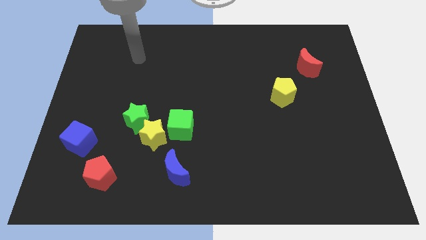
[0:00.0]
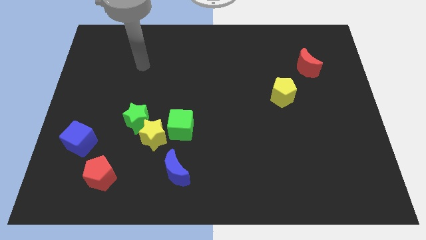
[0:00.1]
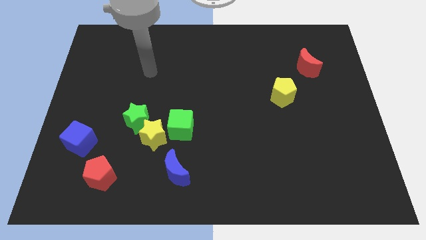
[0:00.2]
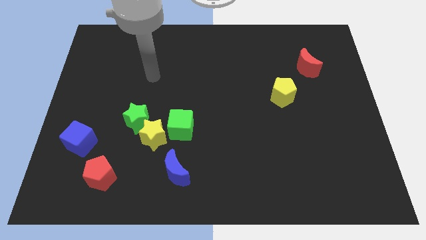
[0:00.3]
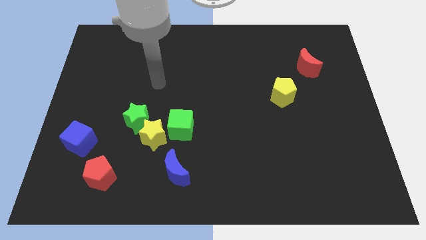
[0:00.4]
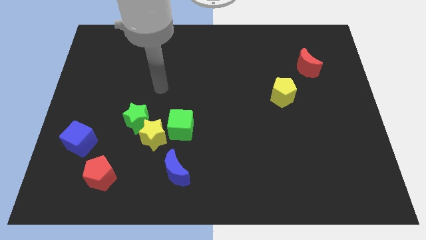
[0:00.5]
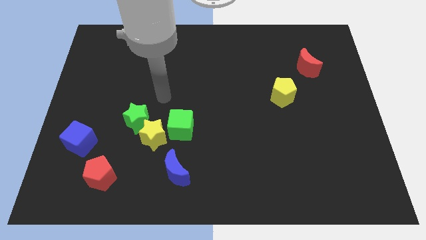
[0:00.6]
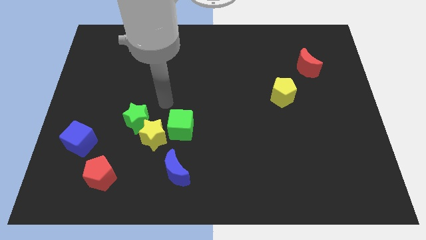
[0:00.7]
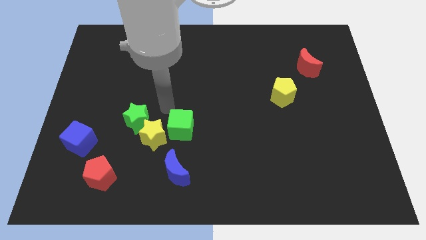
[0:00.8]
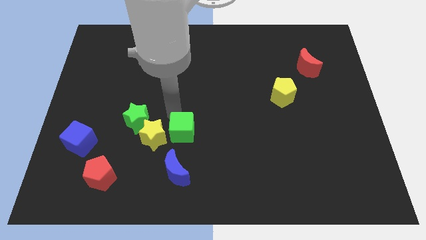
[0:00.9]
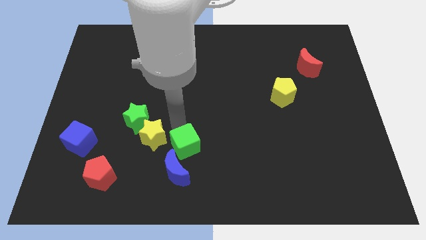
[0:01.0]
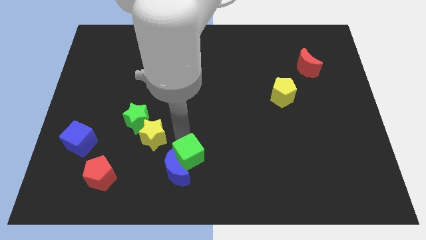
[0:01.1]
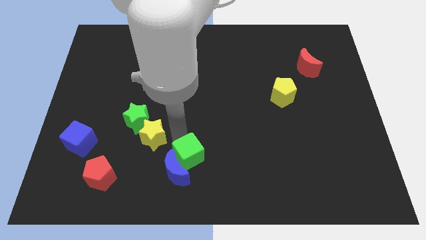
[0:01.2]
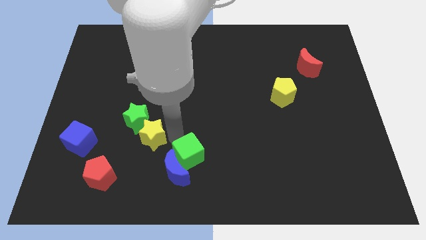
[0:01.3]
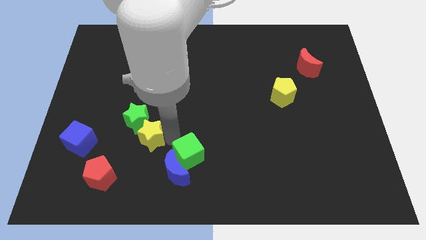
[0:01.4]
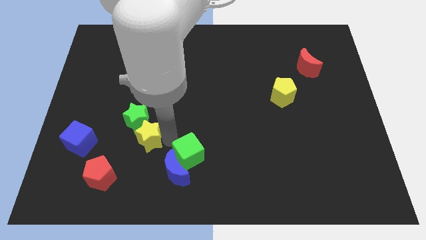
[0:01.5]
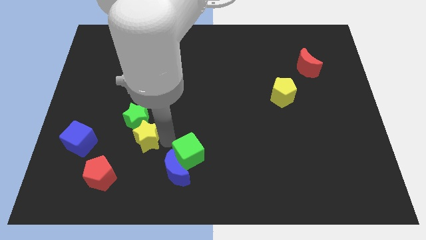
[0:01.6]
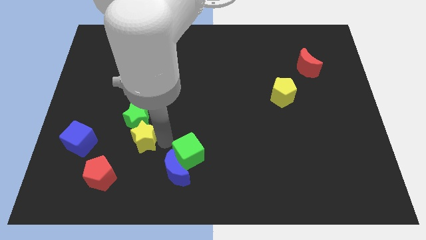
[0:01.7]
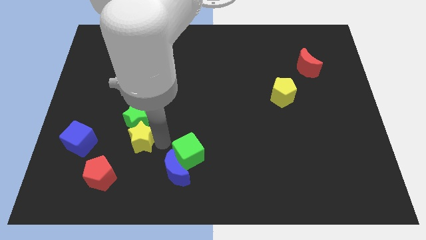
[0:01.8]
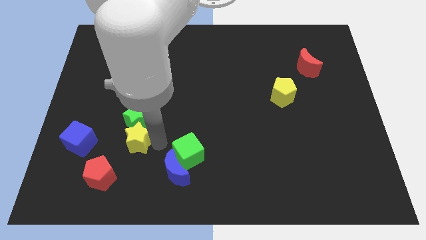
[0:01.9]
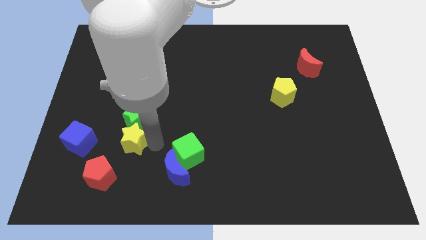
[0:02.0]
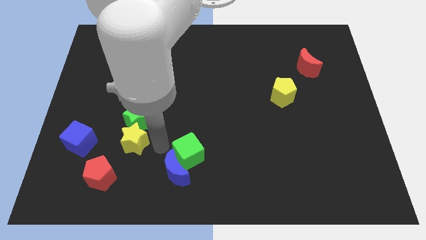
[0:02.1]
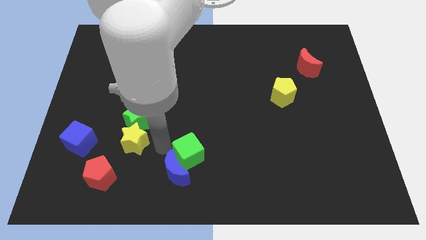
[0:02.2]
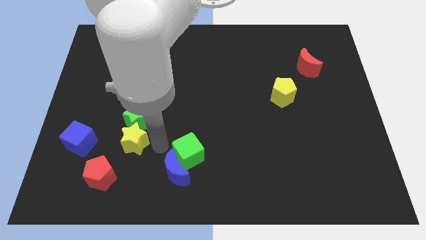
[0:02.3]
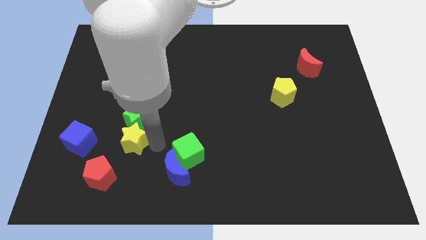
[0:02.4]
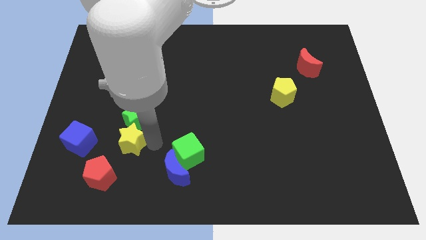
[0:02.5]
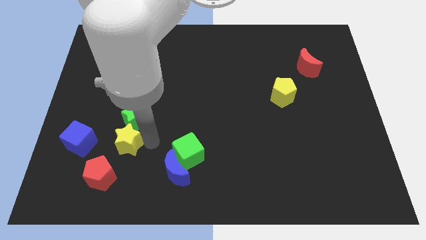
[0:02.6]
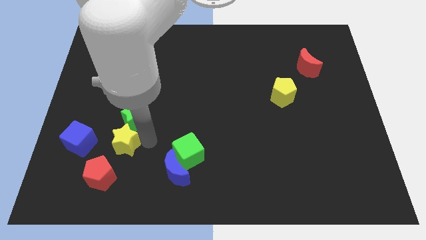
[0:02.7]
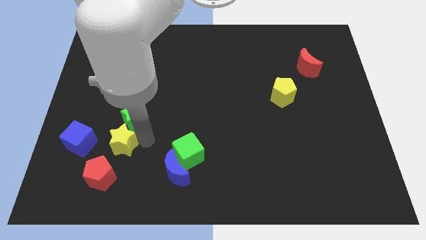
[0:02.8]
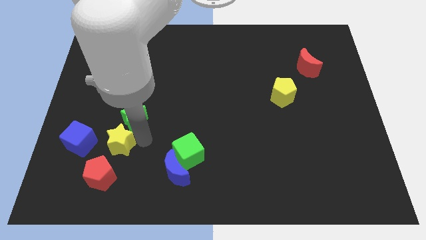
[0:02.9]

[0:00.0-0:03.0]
pull the yellow star apart from the clump

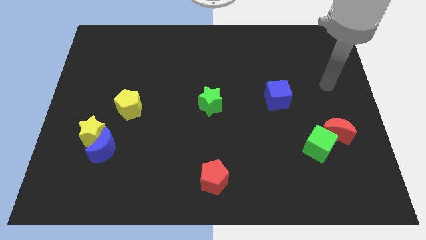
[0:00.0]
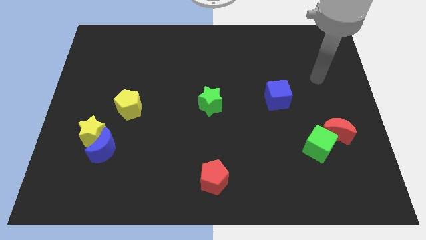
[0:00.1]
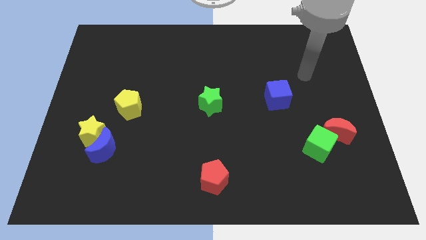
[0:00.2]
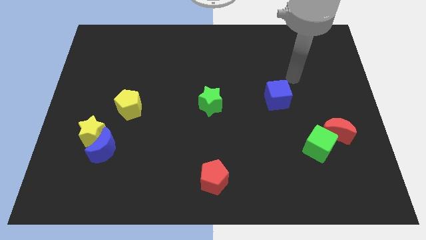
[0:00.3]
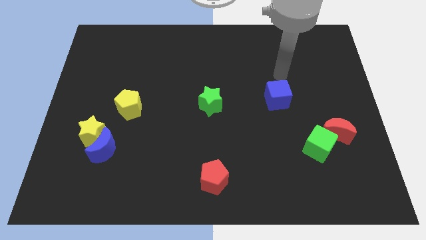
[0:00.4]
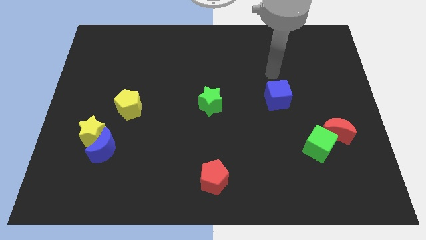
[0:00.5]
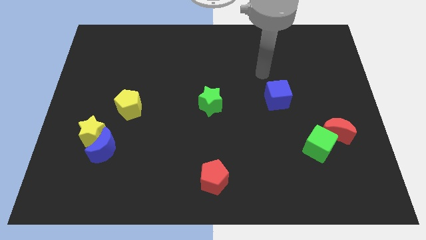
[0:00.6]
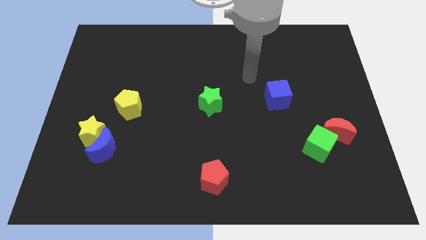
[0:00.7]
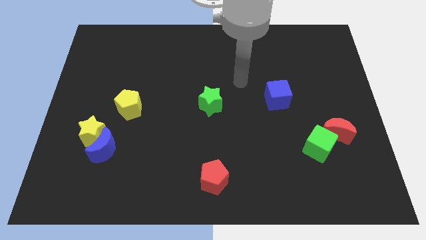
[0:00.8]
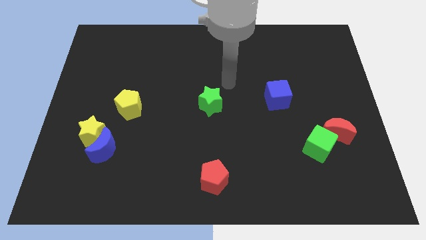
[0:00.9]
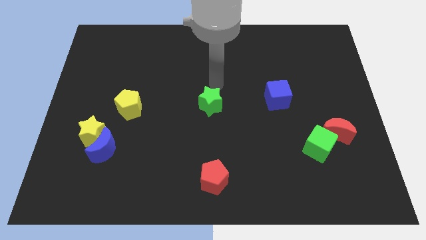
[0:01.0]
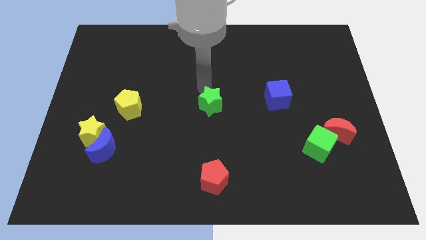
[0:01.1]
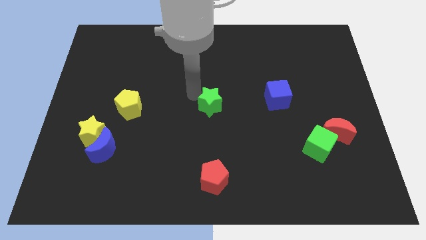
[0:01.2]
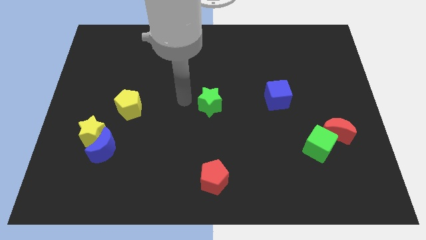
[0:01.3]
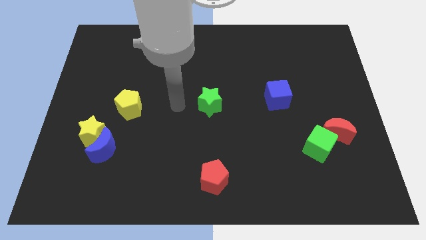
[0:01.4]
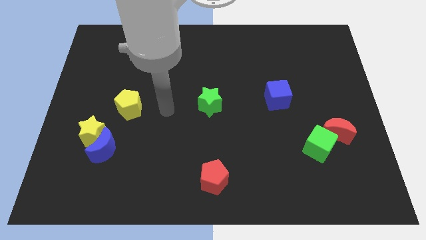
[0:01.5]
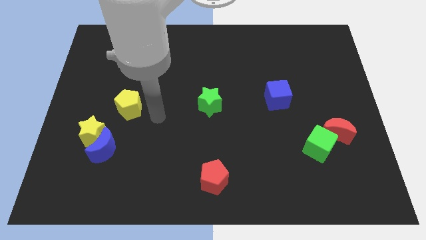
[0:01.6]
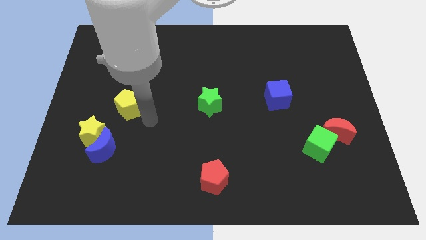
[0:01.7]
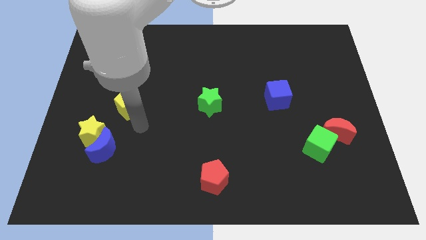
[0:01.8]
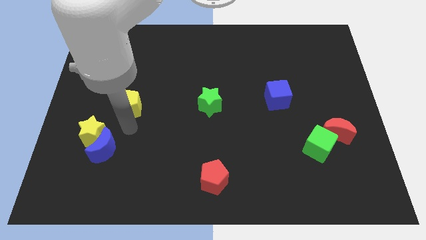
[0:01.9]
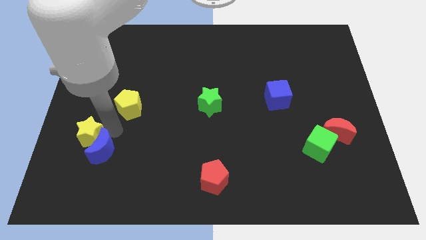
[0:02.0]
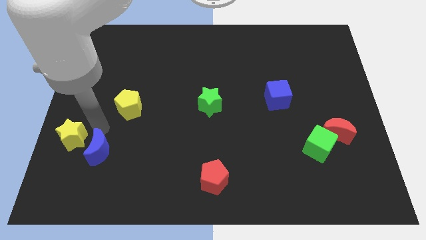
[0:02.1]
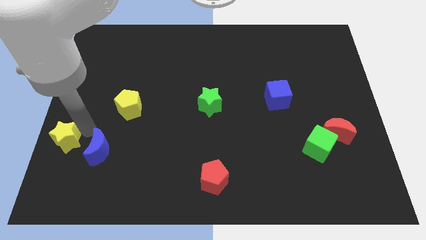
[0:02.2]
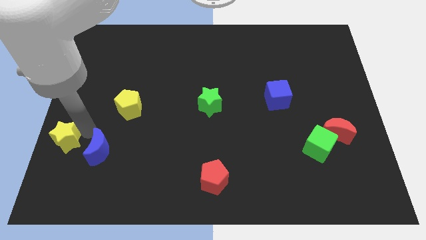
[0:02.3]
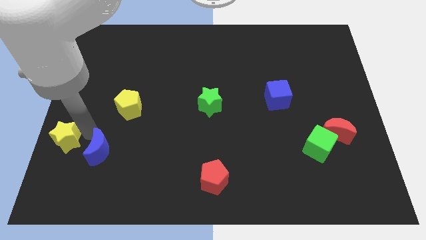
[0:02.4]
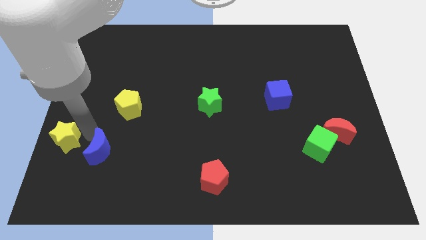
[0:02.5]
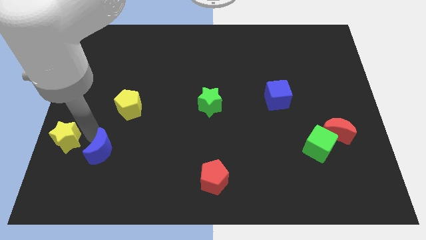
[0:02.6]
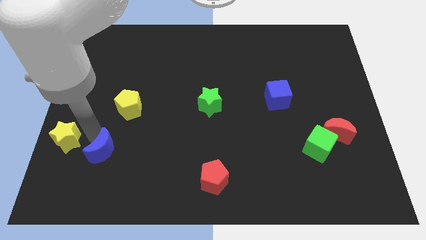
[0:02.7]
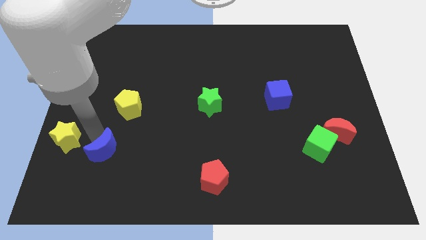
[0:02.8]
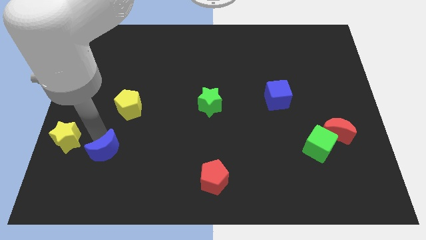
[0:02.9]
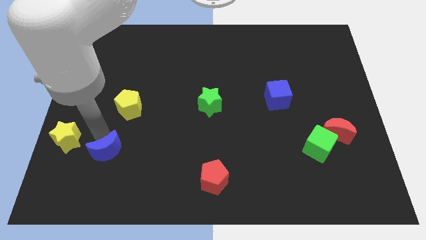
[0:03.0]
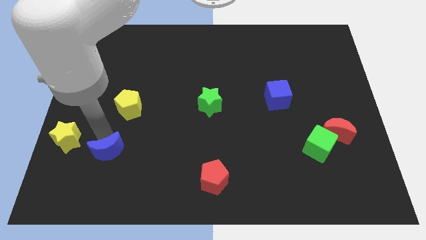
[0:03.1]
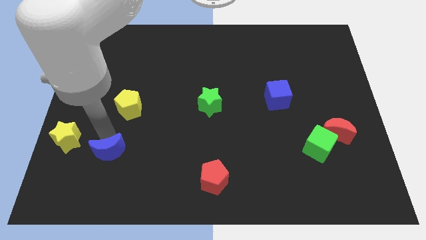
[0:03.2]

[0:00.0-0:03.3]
pull the blue moon apart from the yellow star

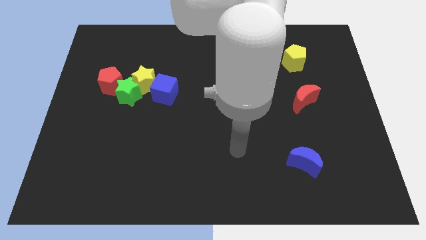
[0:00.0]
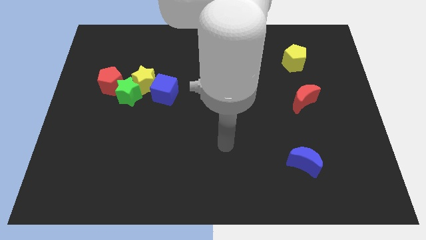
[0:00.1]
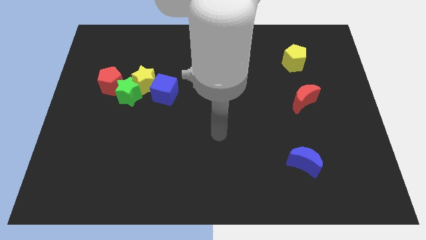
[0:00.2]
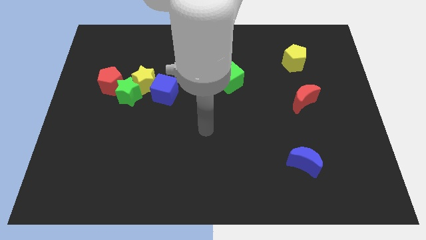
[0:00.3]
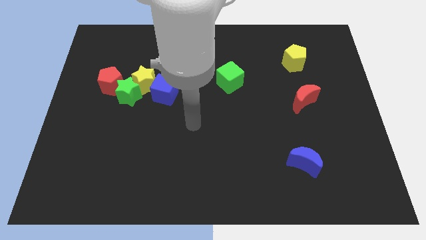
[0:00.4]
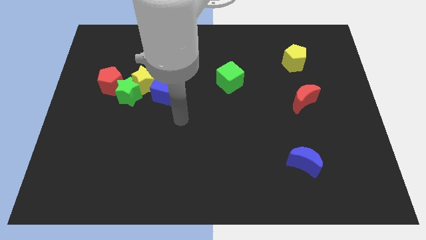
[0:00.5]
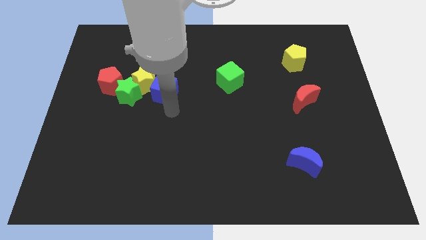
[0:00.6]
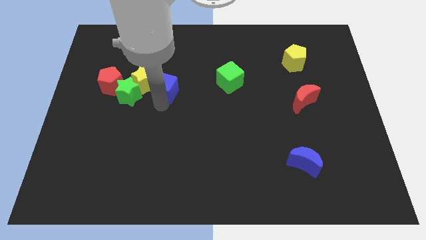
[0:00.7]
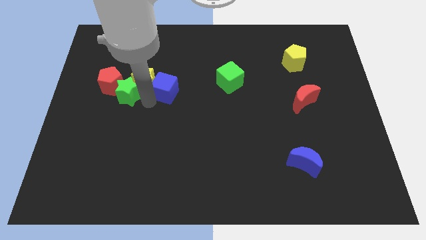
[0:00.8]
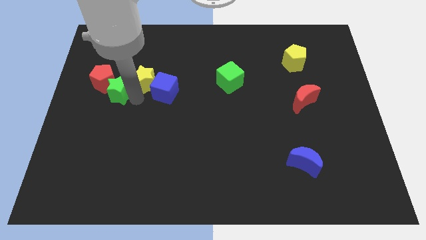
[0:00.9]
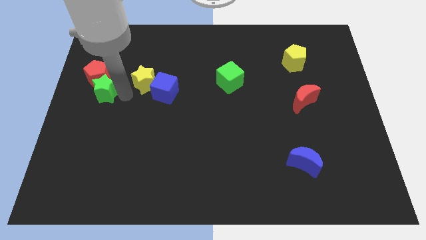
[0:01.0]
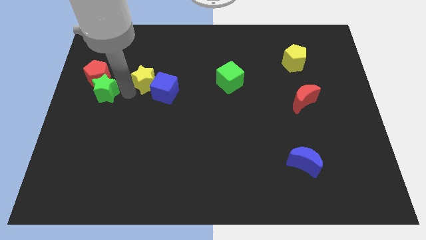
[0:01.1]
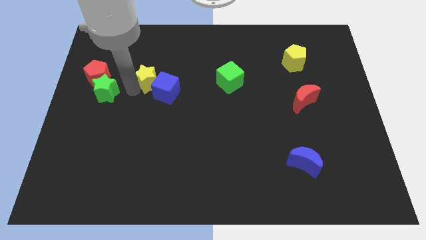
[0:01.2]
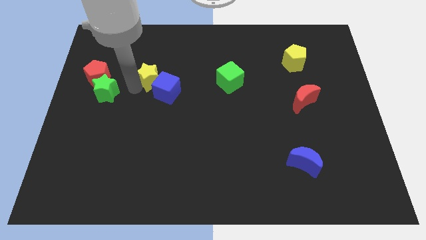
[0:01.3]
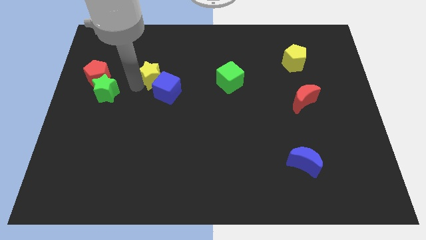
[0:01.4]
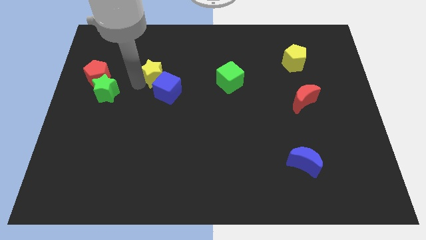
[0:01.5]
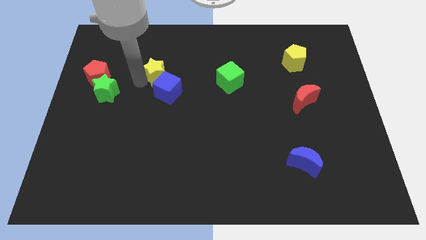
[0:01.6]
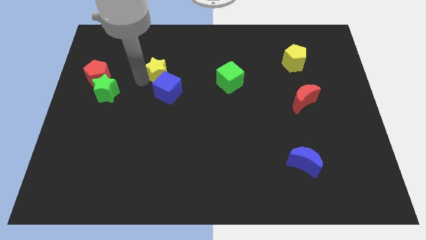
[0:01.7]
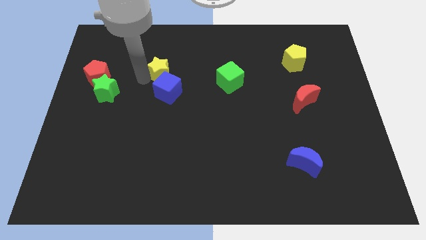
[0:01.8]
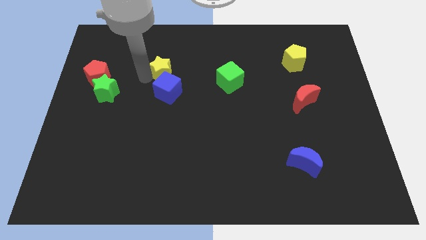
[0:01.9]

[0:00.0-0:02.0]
move the yellow star away from the group

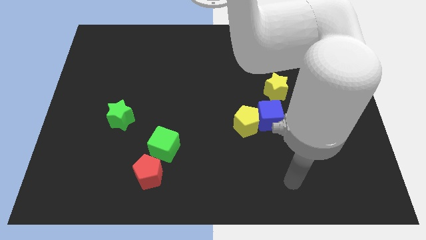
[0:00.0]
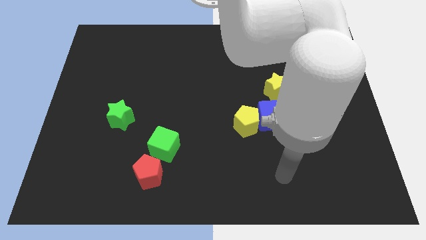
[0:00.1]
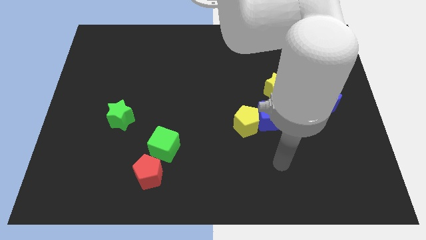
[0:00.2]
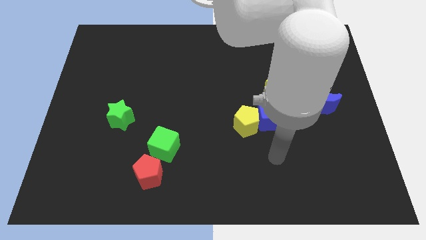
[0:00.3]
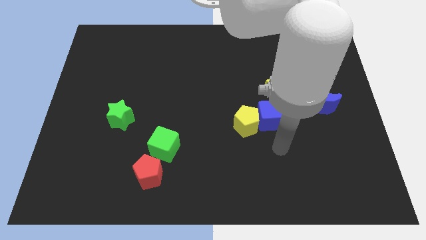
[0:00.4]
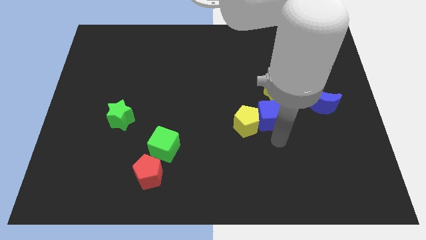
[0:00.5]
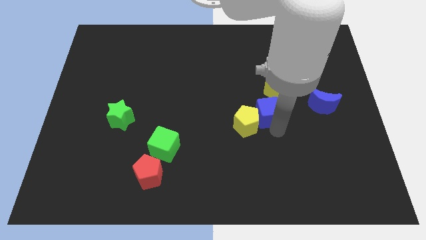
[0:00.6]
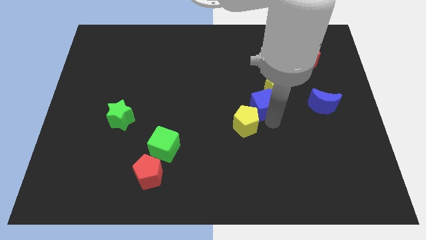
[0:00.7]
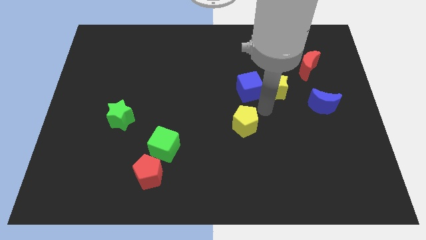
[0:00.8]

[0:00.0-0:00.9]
separate the yellow pentagon from the blue cube

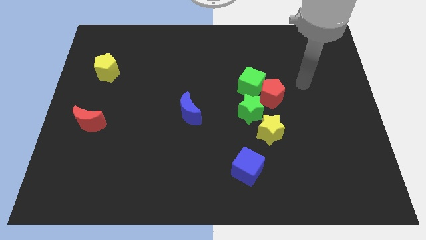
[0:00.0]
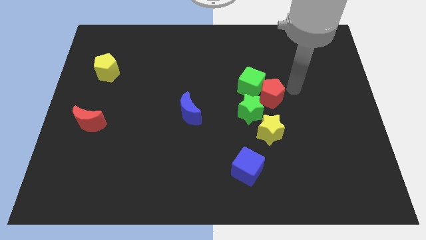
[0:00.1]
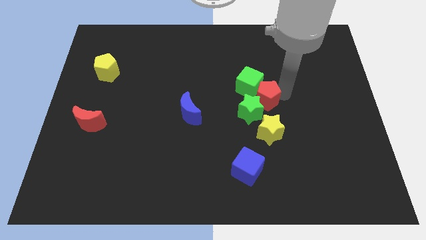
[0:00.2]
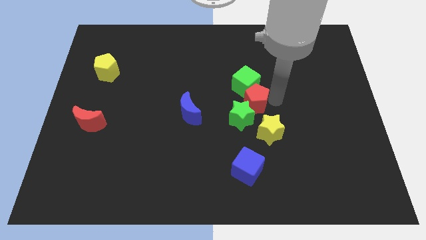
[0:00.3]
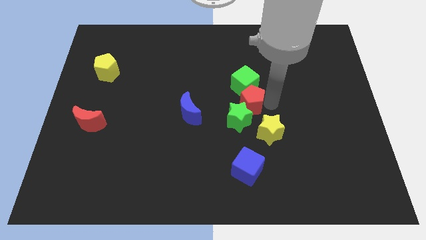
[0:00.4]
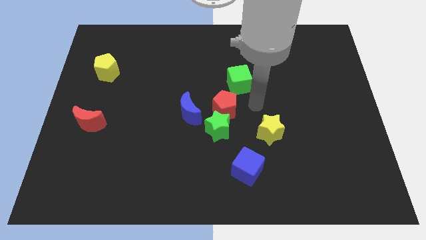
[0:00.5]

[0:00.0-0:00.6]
pull the green cube apart from the red pentagon and green star
